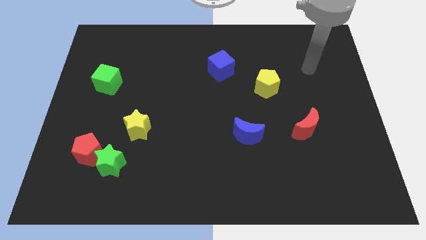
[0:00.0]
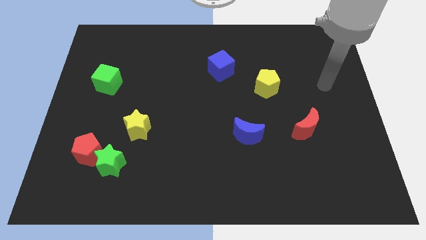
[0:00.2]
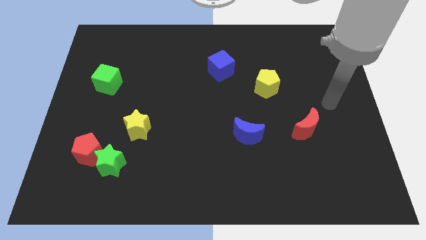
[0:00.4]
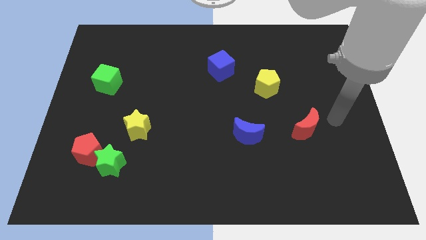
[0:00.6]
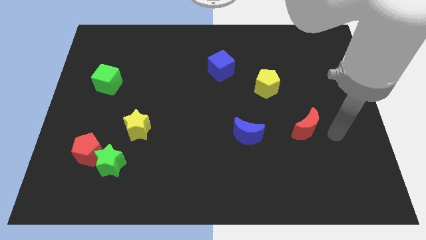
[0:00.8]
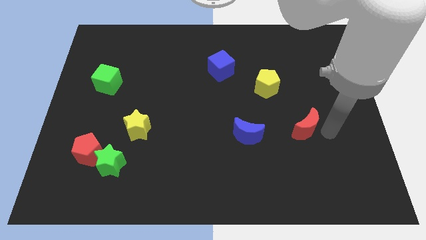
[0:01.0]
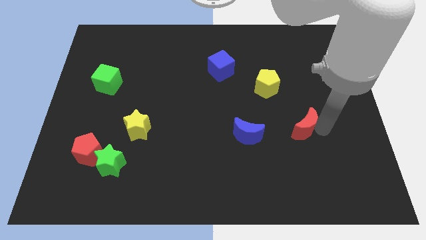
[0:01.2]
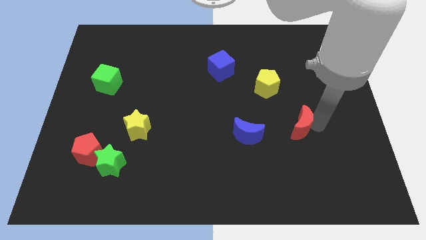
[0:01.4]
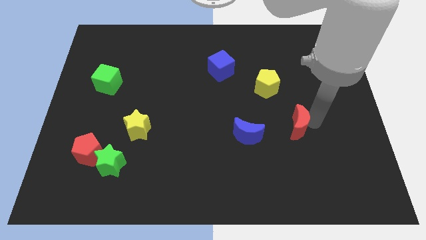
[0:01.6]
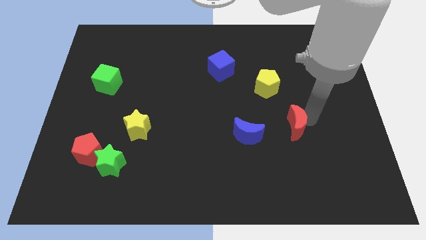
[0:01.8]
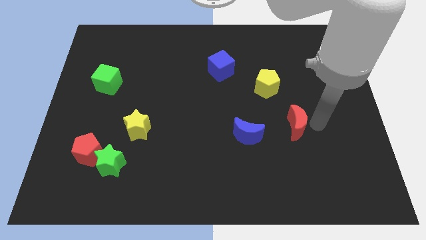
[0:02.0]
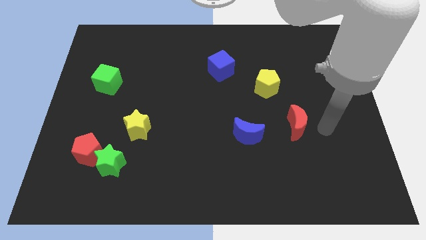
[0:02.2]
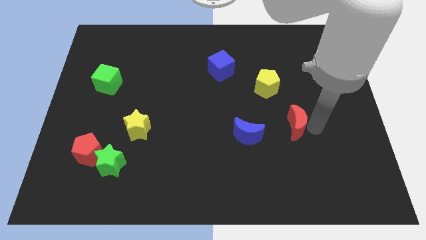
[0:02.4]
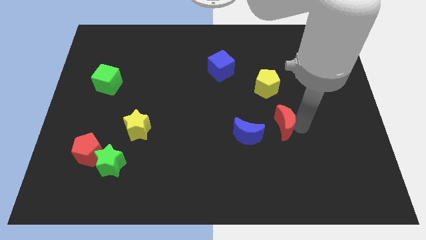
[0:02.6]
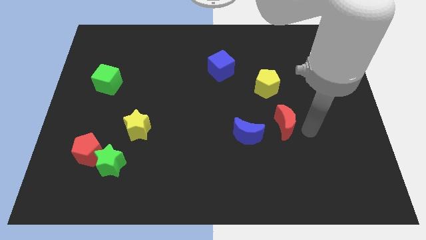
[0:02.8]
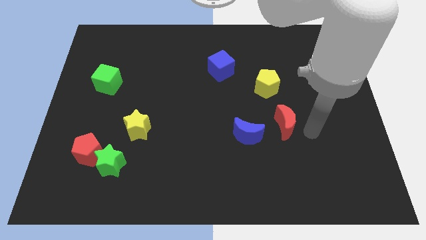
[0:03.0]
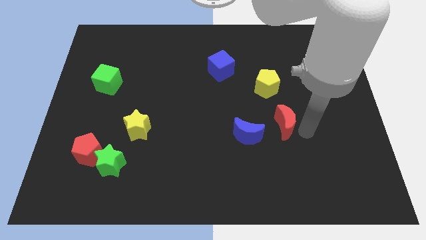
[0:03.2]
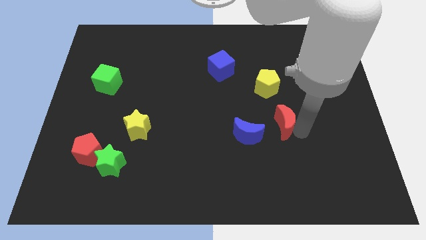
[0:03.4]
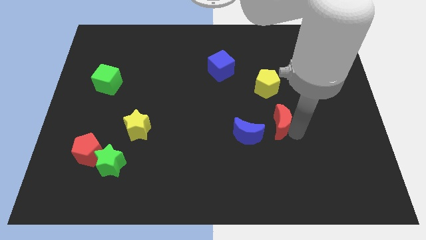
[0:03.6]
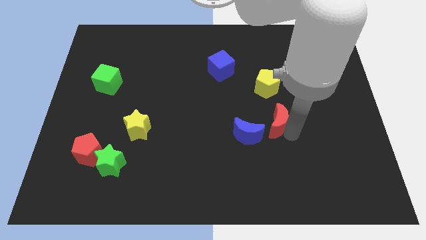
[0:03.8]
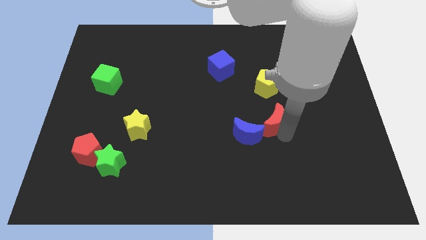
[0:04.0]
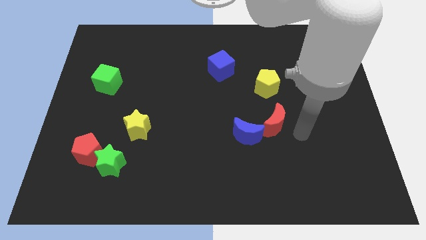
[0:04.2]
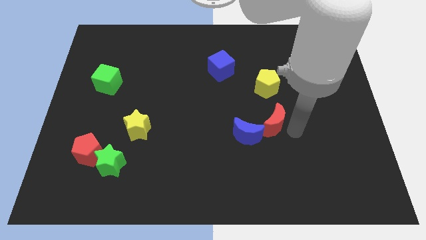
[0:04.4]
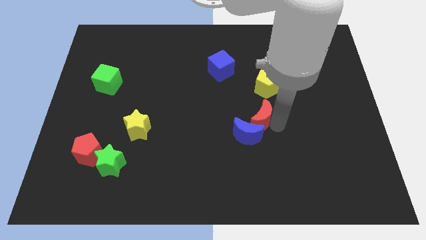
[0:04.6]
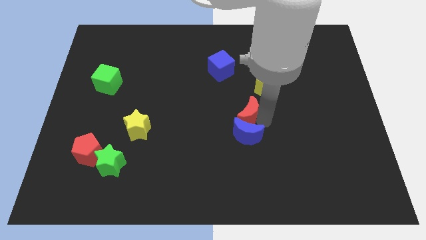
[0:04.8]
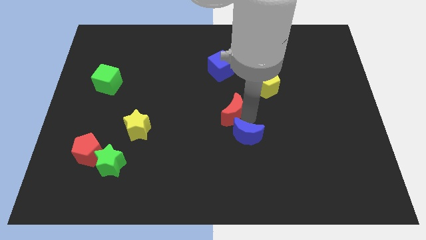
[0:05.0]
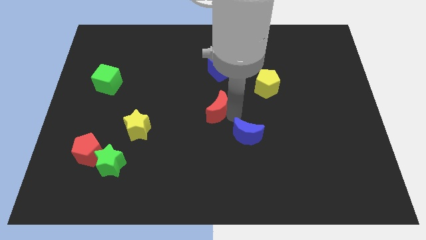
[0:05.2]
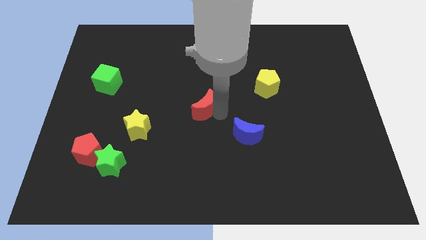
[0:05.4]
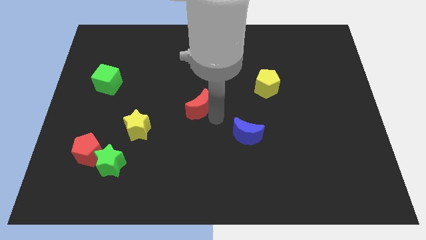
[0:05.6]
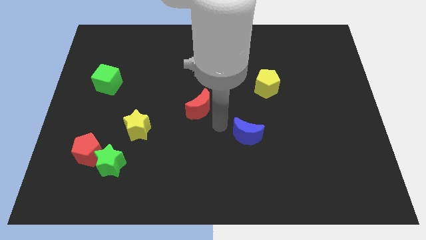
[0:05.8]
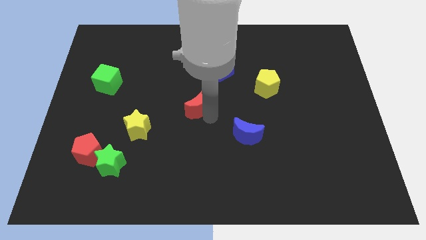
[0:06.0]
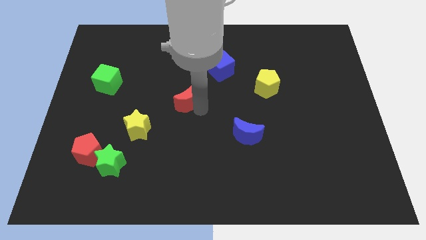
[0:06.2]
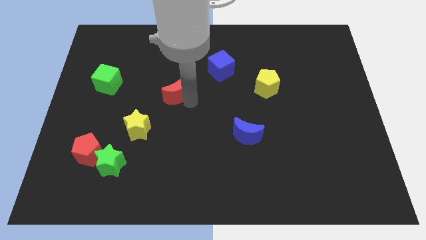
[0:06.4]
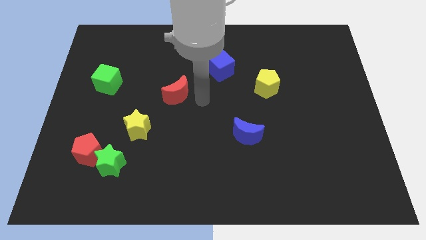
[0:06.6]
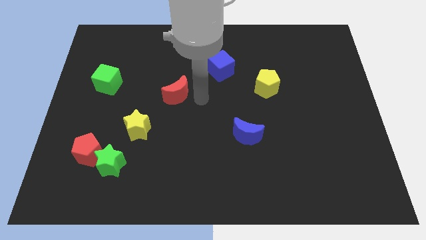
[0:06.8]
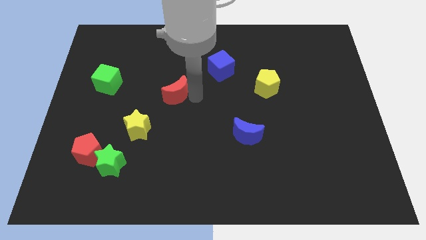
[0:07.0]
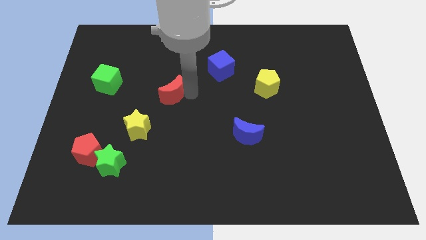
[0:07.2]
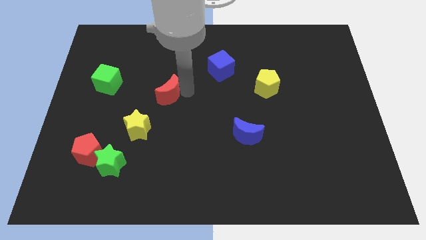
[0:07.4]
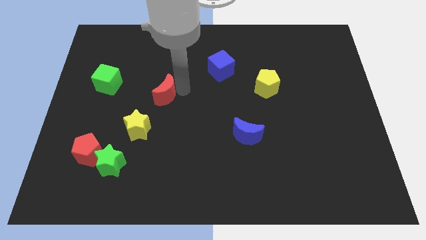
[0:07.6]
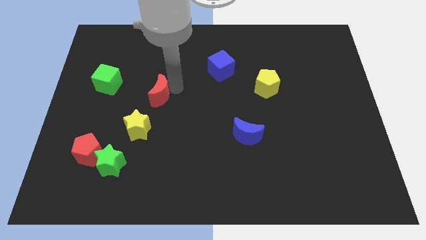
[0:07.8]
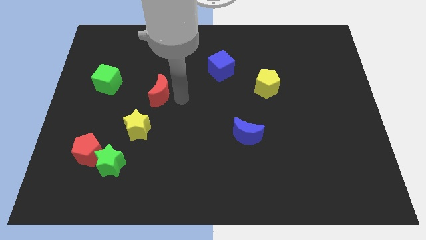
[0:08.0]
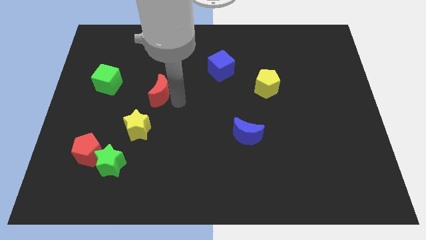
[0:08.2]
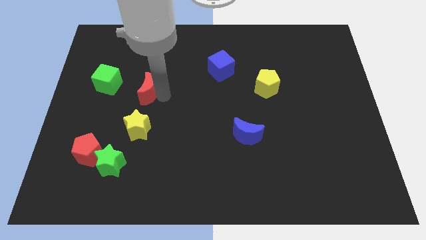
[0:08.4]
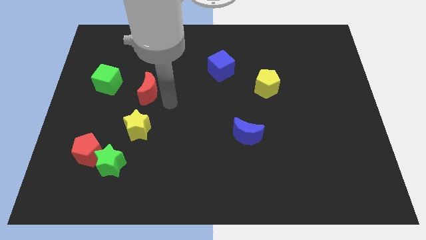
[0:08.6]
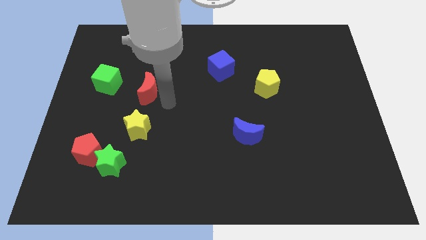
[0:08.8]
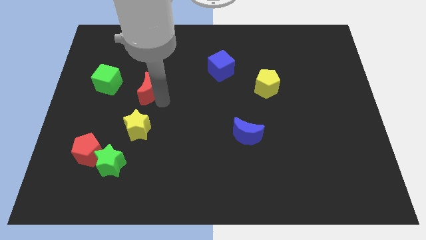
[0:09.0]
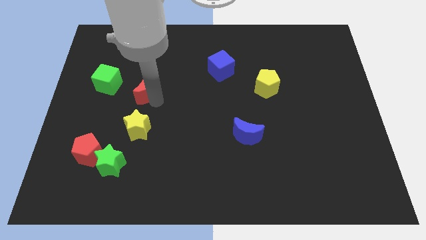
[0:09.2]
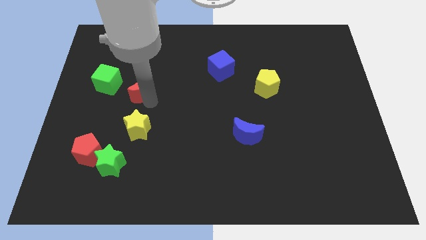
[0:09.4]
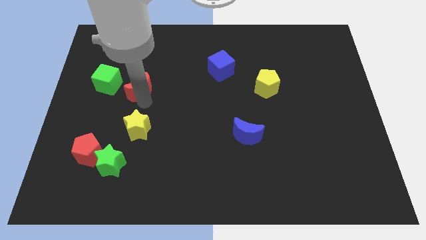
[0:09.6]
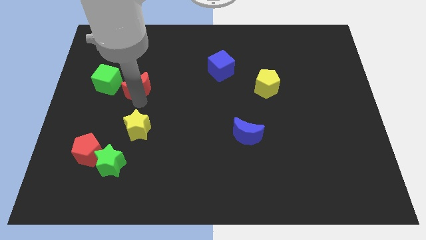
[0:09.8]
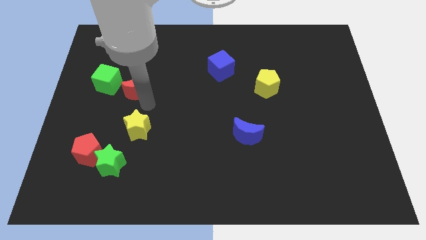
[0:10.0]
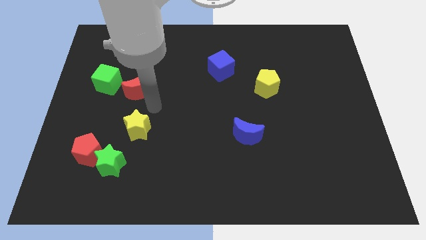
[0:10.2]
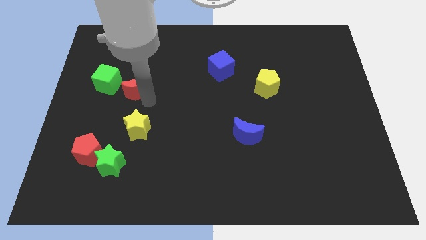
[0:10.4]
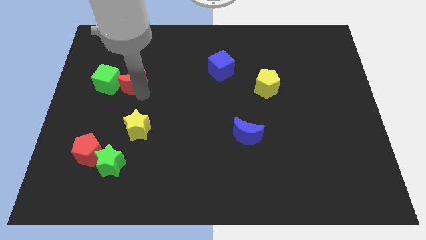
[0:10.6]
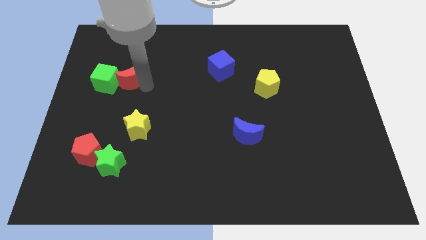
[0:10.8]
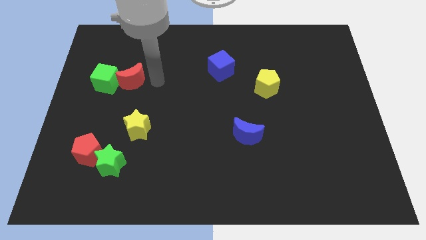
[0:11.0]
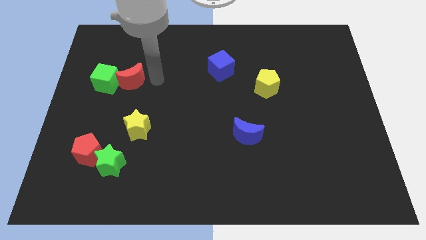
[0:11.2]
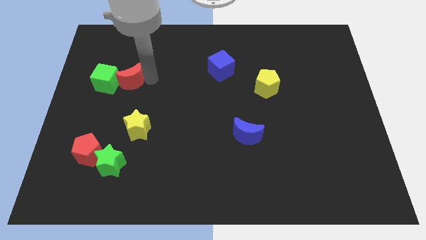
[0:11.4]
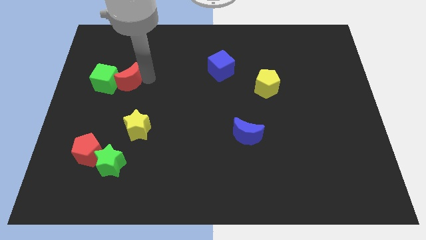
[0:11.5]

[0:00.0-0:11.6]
slide the red moon towards the green cube

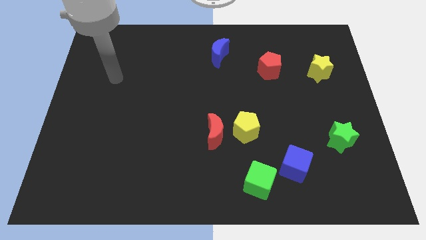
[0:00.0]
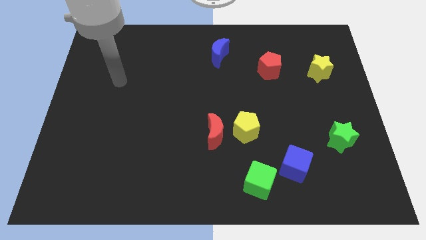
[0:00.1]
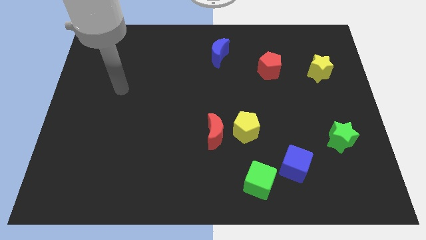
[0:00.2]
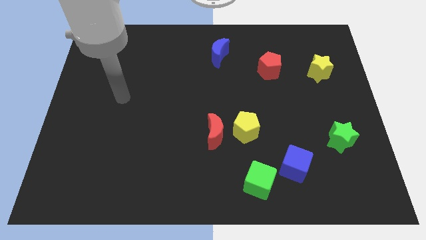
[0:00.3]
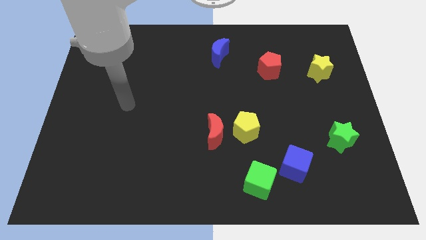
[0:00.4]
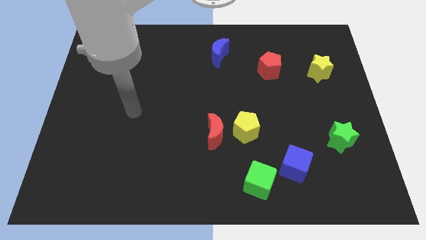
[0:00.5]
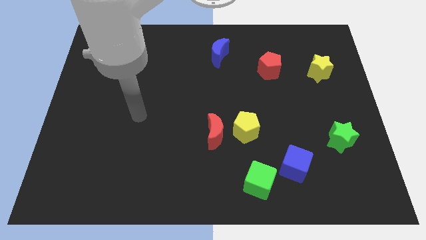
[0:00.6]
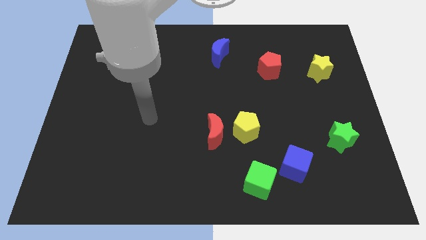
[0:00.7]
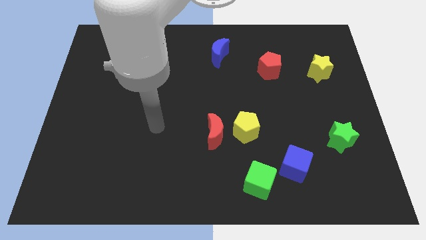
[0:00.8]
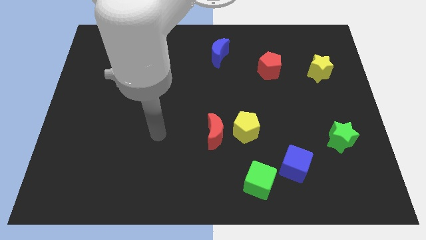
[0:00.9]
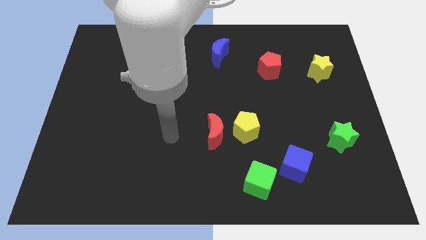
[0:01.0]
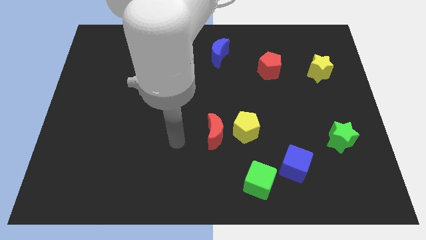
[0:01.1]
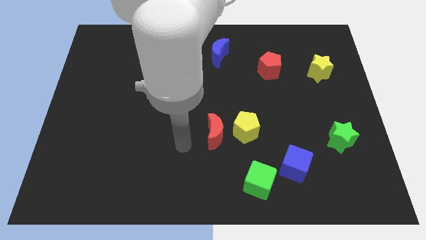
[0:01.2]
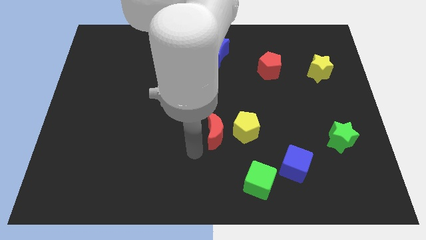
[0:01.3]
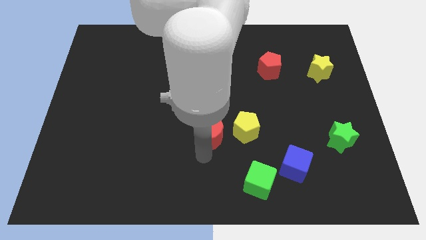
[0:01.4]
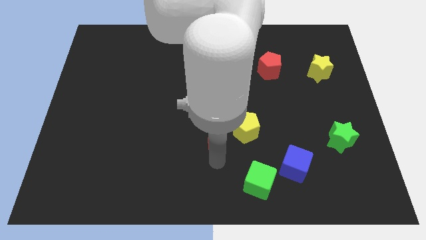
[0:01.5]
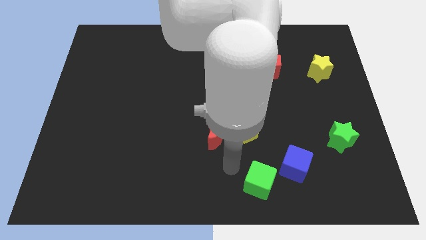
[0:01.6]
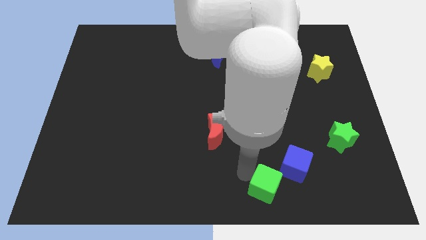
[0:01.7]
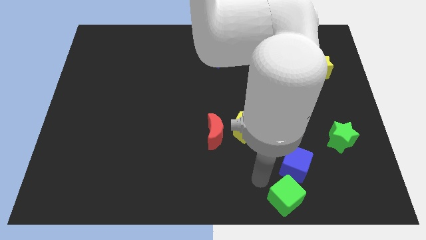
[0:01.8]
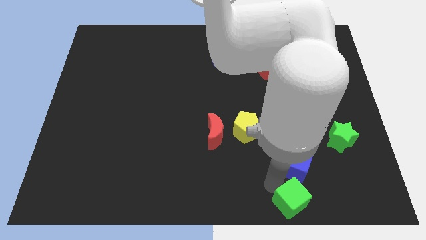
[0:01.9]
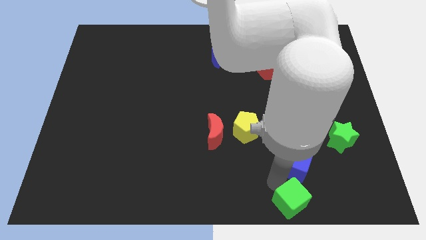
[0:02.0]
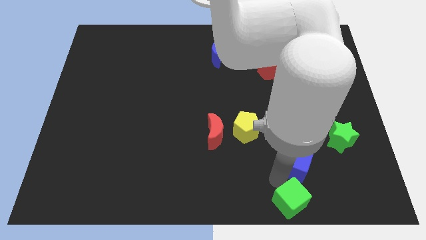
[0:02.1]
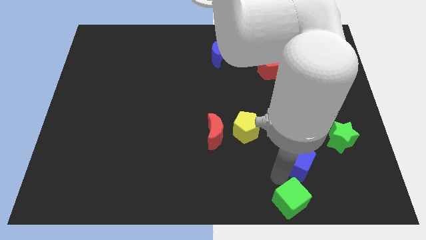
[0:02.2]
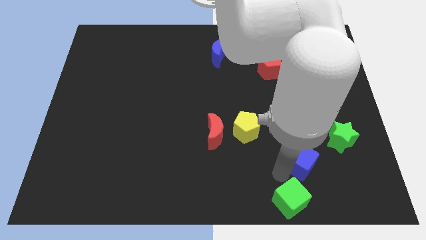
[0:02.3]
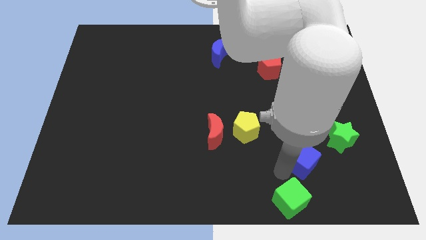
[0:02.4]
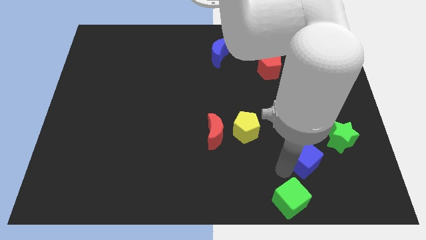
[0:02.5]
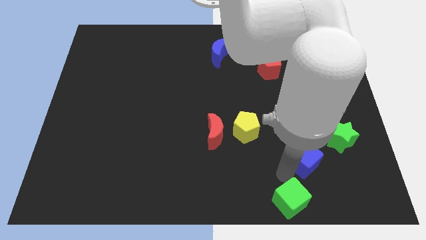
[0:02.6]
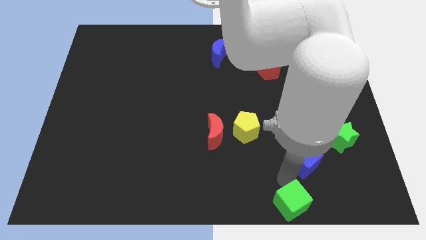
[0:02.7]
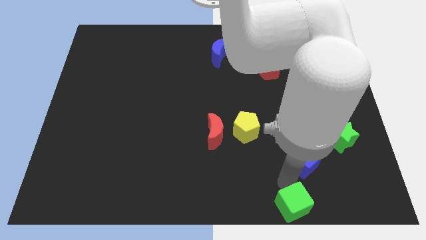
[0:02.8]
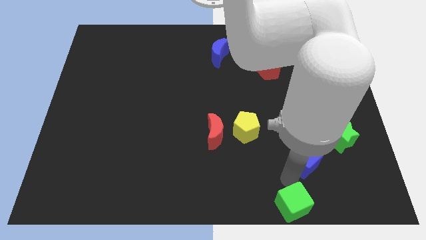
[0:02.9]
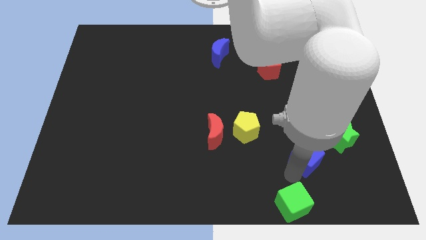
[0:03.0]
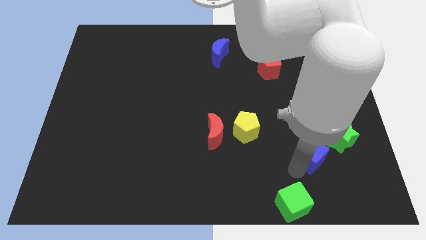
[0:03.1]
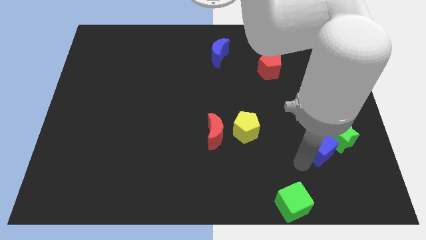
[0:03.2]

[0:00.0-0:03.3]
move the blue cube close to the green star
